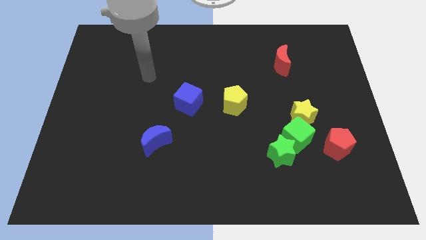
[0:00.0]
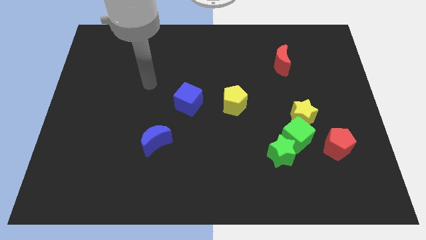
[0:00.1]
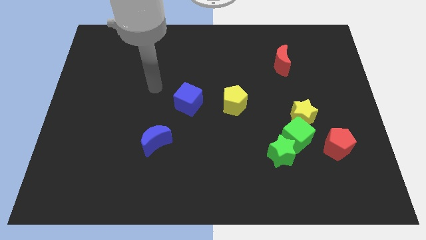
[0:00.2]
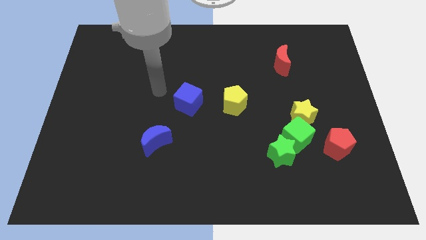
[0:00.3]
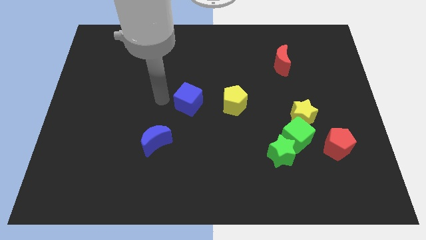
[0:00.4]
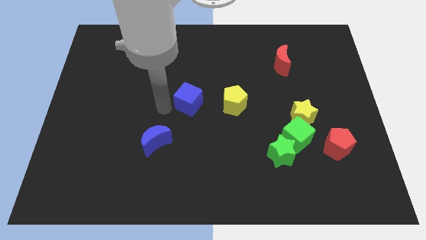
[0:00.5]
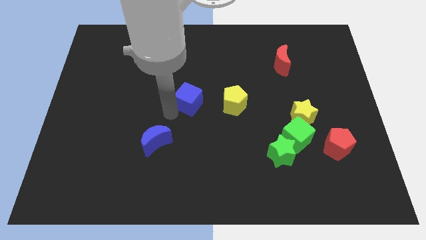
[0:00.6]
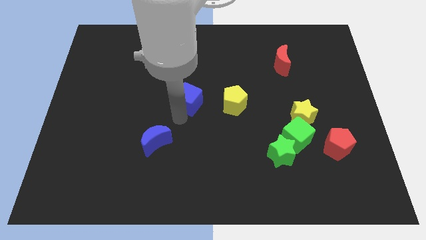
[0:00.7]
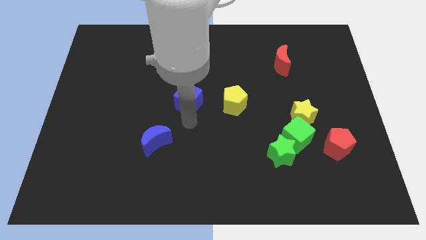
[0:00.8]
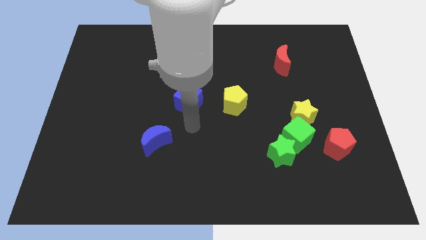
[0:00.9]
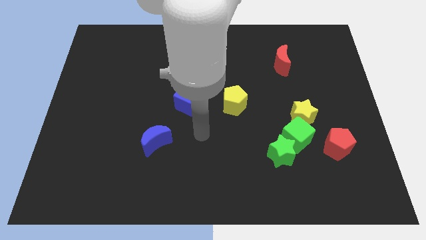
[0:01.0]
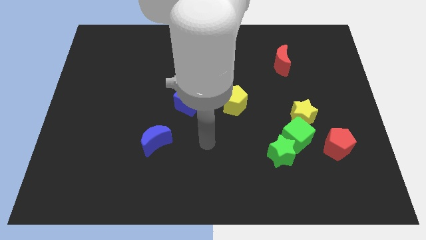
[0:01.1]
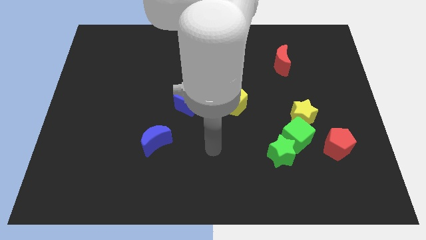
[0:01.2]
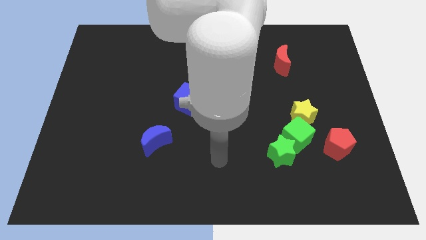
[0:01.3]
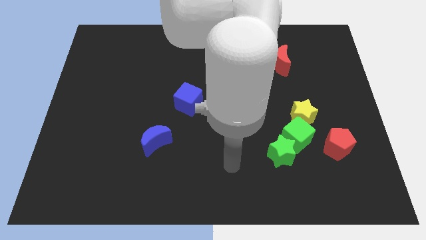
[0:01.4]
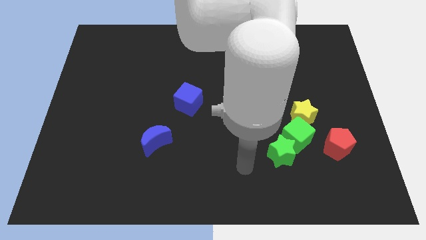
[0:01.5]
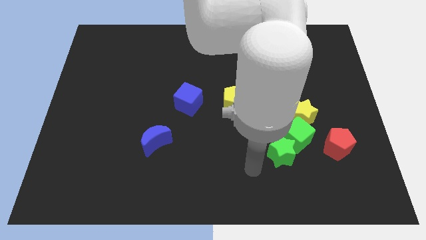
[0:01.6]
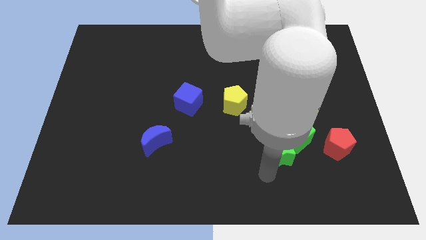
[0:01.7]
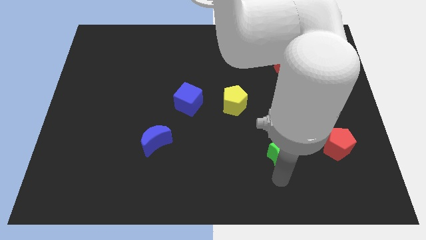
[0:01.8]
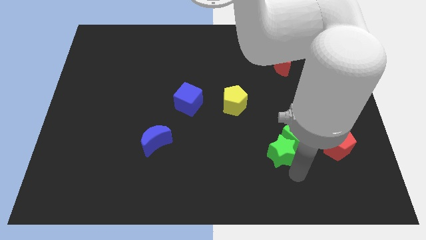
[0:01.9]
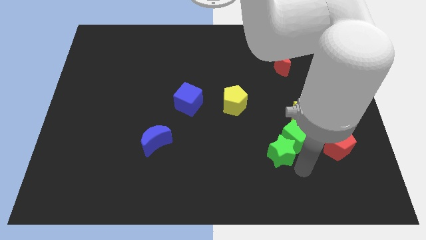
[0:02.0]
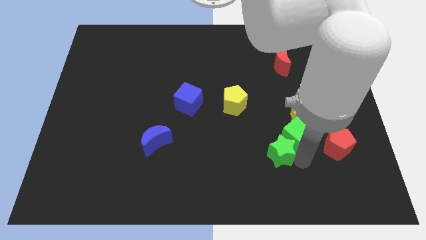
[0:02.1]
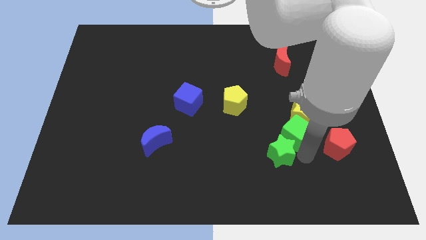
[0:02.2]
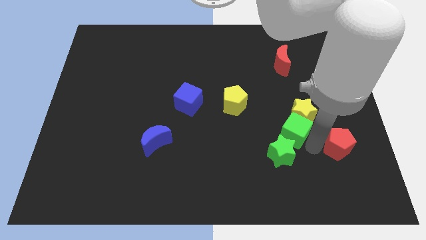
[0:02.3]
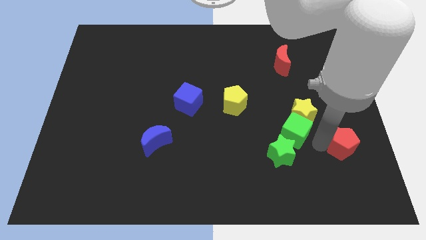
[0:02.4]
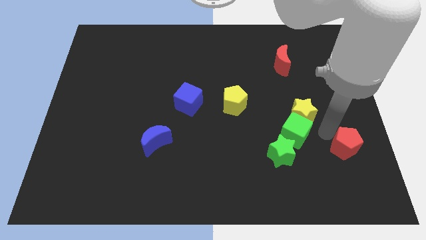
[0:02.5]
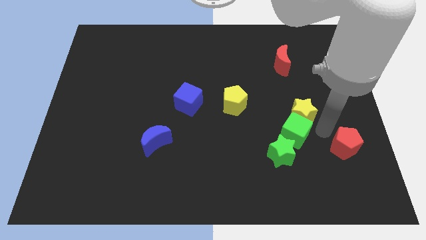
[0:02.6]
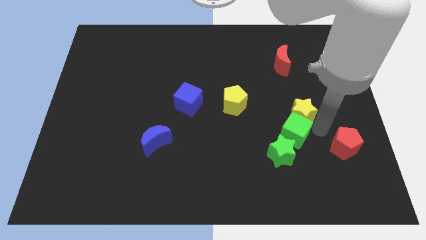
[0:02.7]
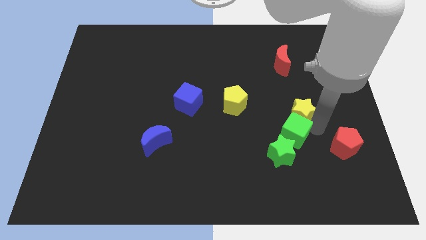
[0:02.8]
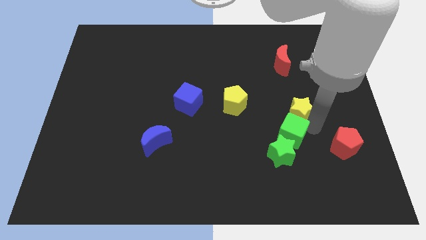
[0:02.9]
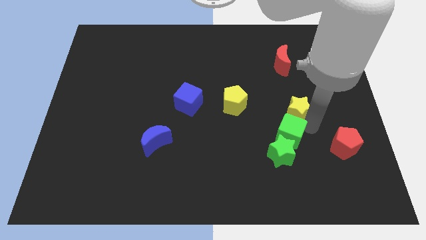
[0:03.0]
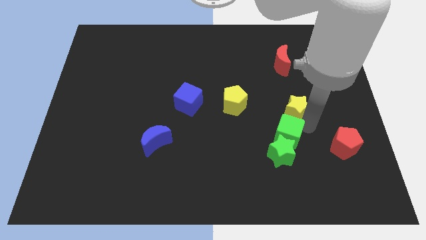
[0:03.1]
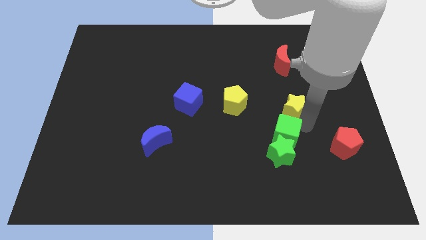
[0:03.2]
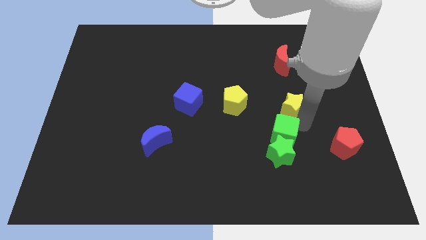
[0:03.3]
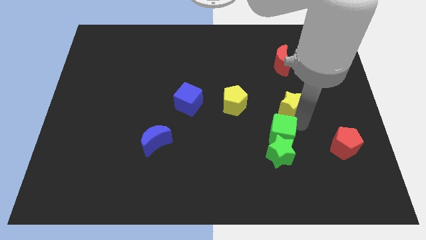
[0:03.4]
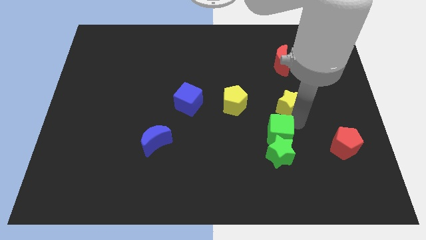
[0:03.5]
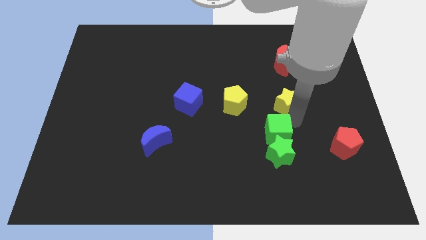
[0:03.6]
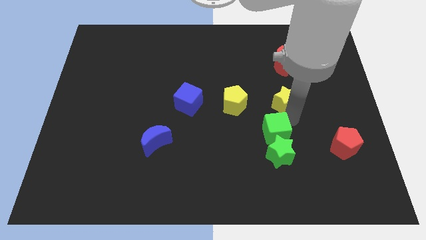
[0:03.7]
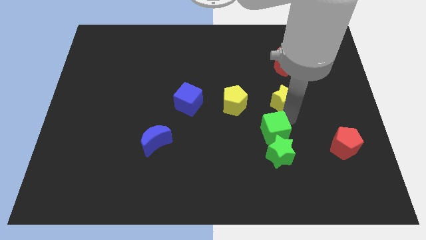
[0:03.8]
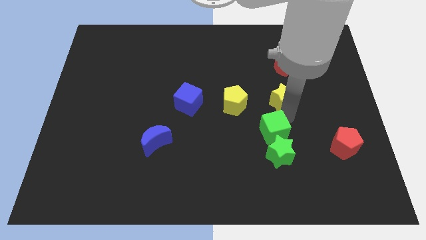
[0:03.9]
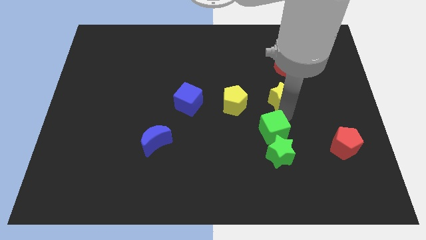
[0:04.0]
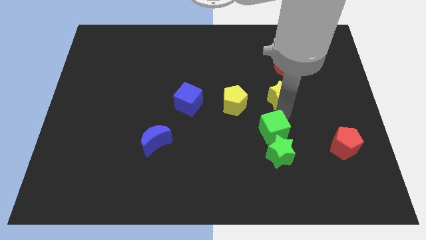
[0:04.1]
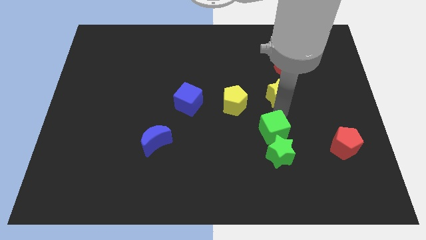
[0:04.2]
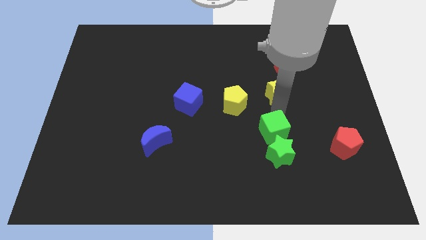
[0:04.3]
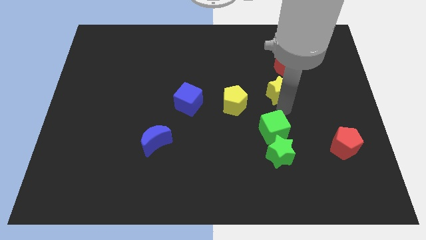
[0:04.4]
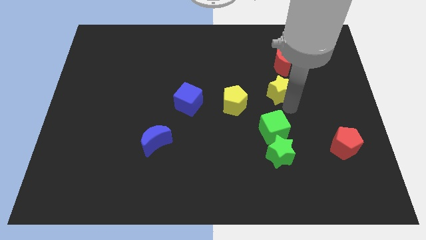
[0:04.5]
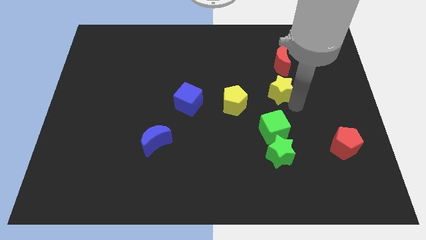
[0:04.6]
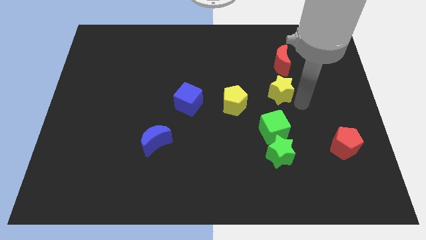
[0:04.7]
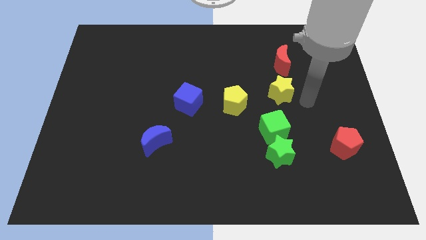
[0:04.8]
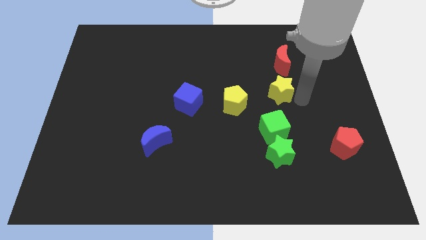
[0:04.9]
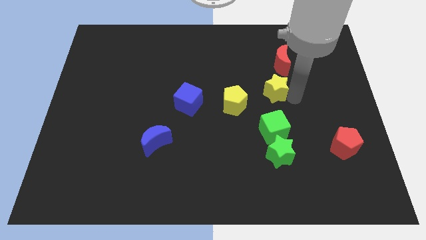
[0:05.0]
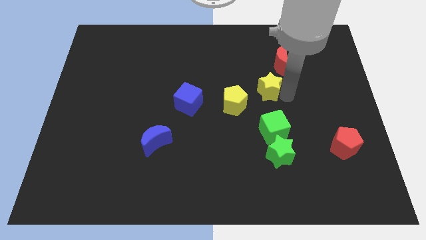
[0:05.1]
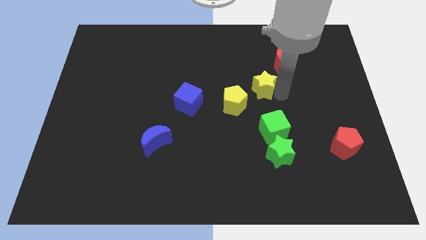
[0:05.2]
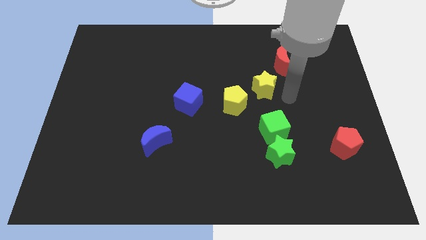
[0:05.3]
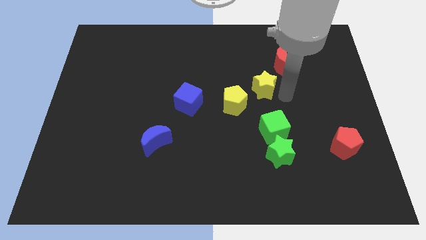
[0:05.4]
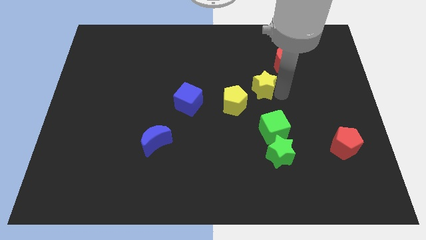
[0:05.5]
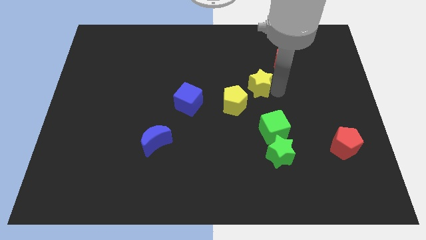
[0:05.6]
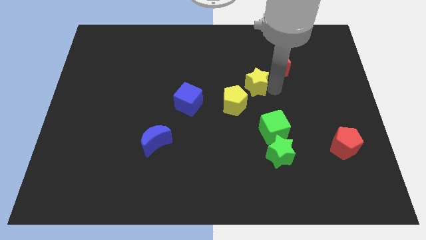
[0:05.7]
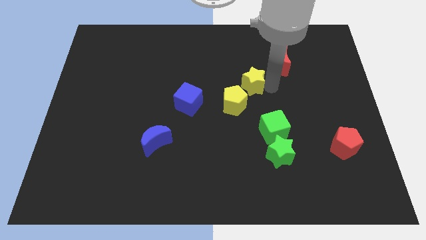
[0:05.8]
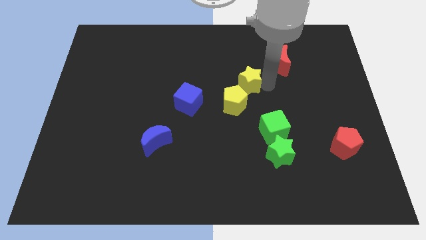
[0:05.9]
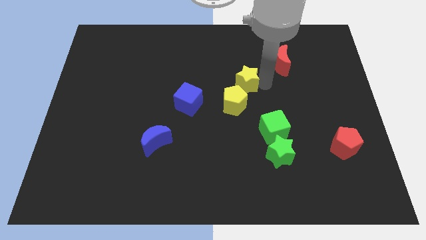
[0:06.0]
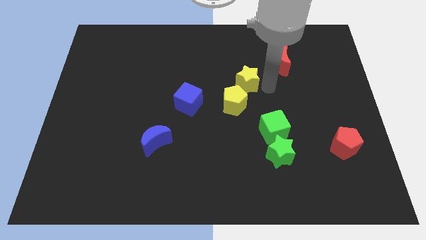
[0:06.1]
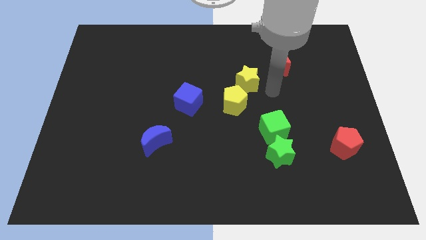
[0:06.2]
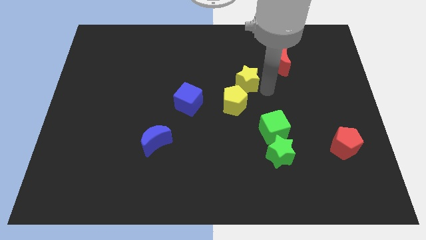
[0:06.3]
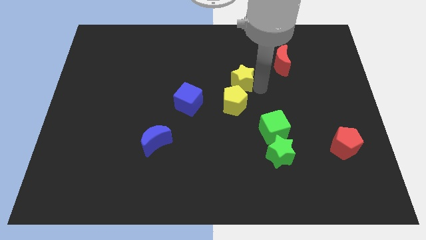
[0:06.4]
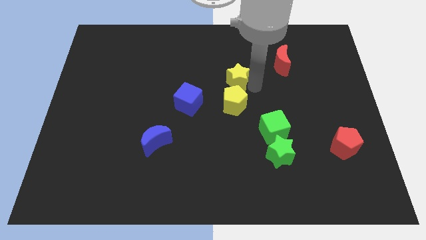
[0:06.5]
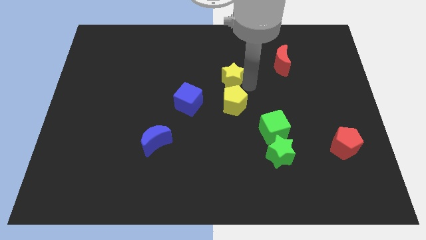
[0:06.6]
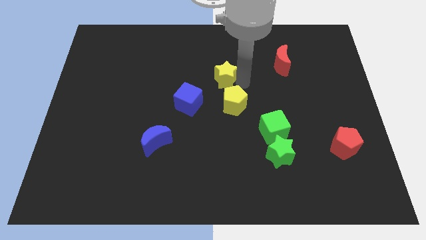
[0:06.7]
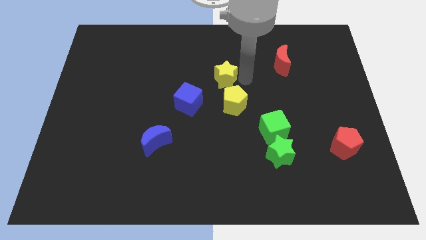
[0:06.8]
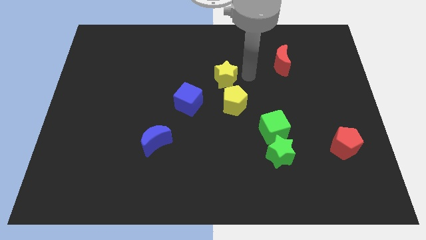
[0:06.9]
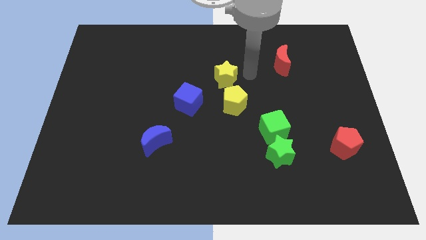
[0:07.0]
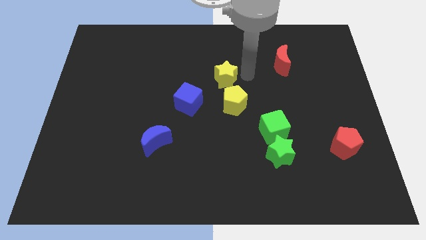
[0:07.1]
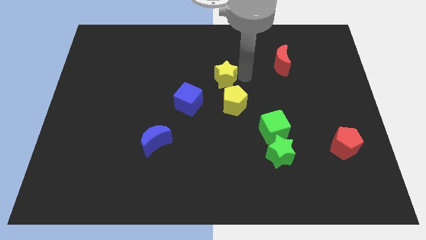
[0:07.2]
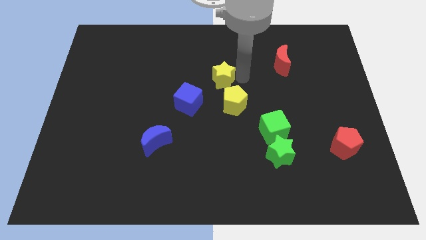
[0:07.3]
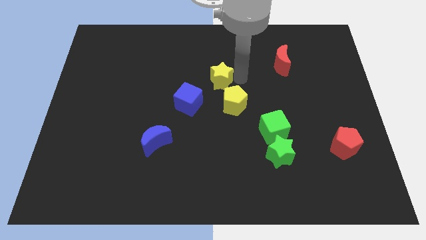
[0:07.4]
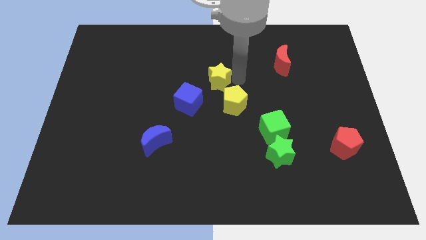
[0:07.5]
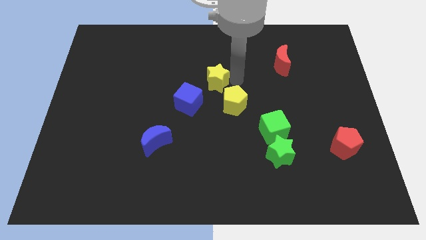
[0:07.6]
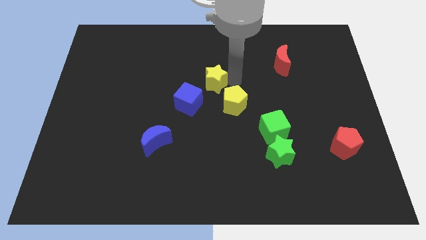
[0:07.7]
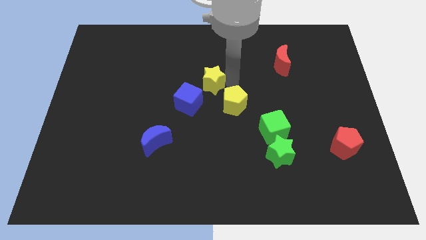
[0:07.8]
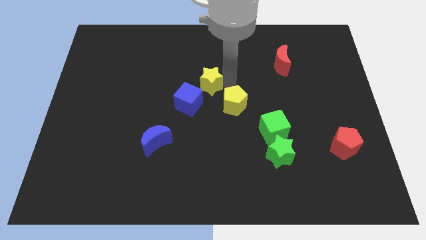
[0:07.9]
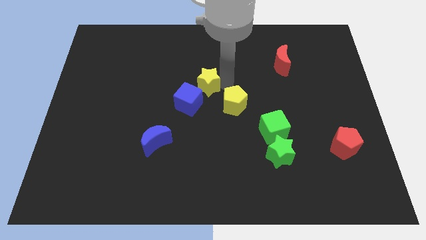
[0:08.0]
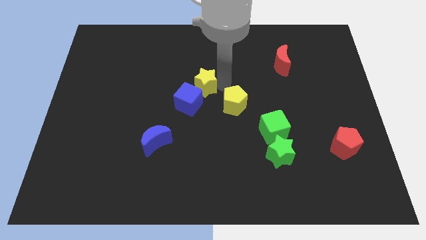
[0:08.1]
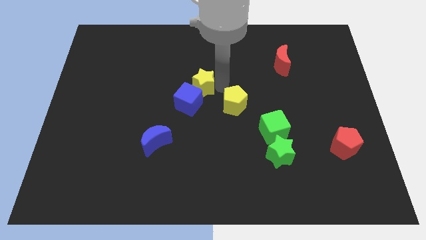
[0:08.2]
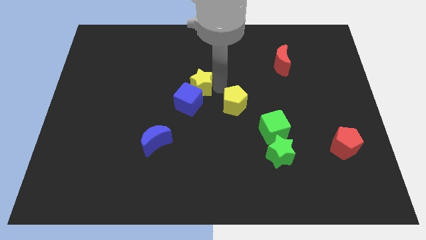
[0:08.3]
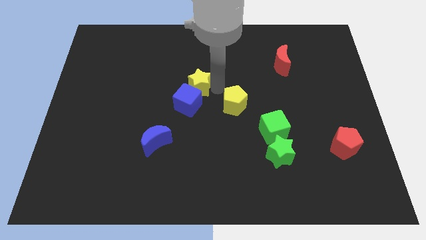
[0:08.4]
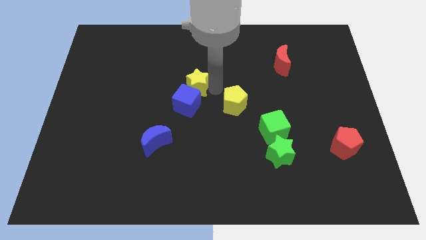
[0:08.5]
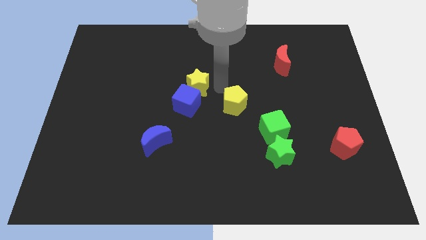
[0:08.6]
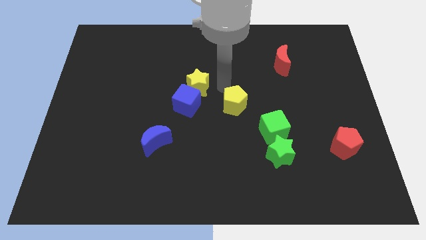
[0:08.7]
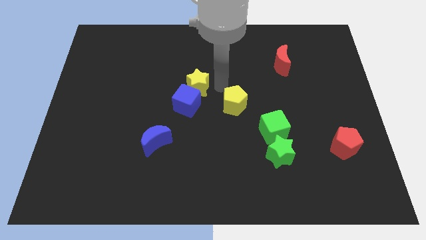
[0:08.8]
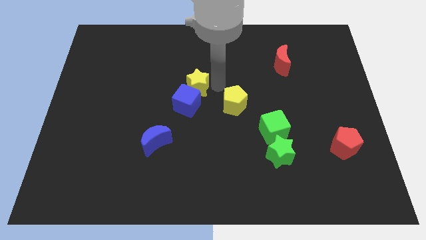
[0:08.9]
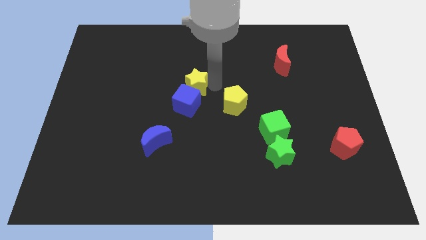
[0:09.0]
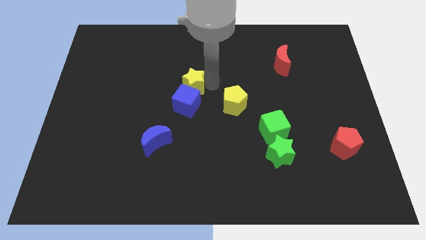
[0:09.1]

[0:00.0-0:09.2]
put the yellow star diagonally up and to the left of the blue cube
